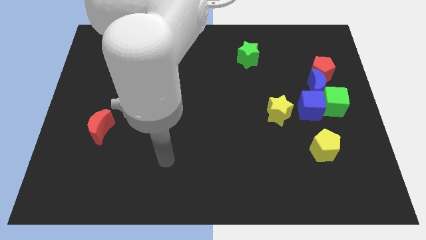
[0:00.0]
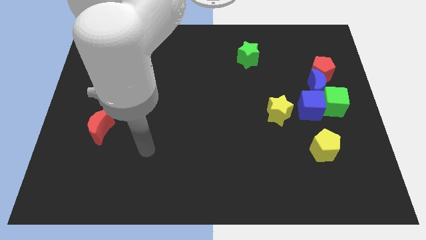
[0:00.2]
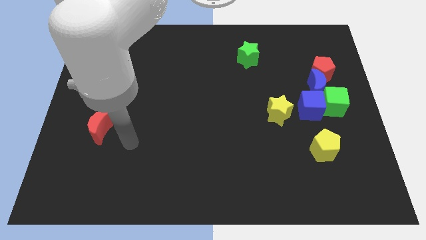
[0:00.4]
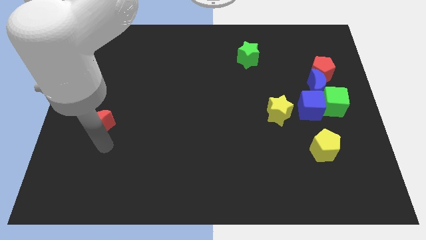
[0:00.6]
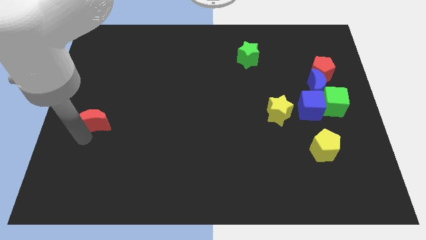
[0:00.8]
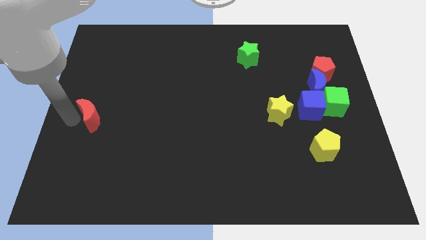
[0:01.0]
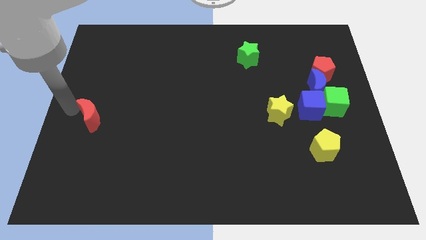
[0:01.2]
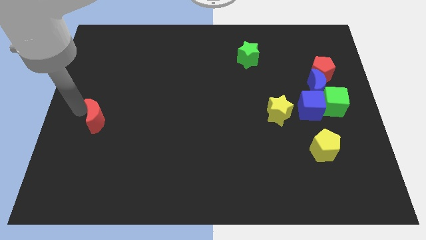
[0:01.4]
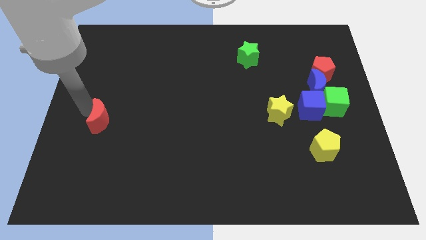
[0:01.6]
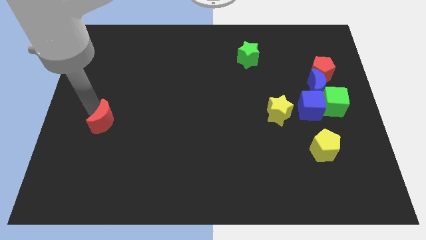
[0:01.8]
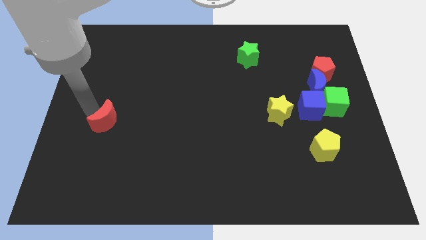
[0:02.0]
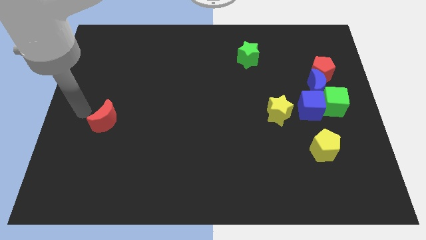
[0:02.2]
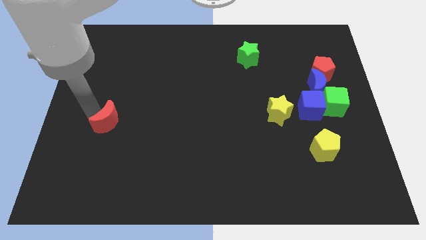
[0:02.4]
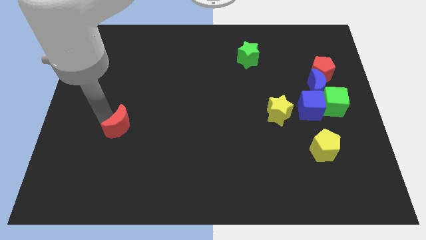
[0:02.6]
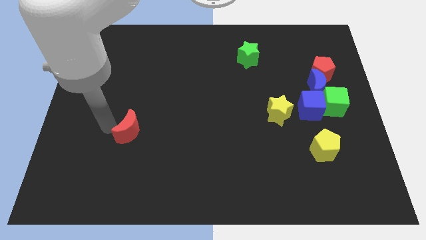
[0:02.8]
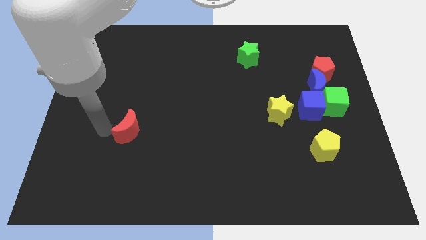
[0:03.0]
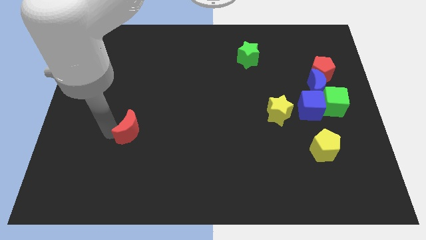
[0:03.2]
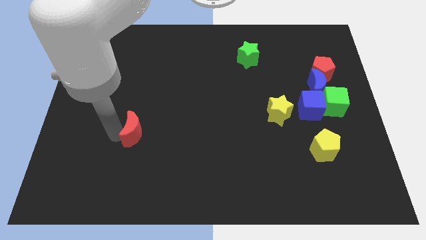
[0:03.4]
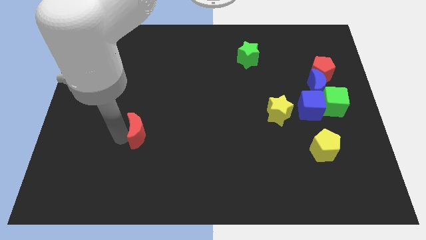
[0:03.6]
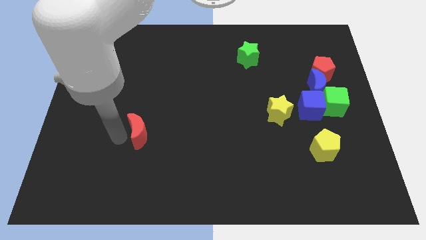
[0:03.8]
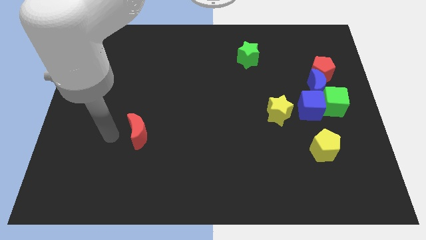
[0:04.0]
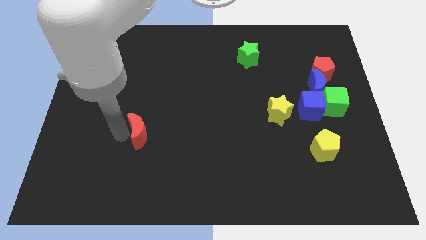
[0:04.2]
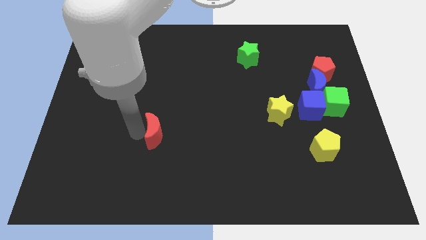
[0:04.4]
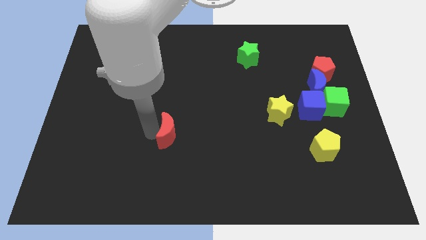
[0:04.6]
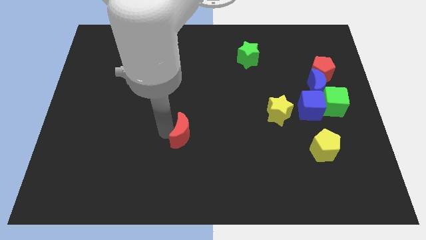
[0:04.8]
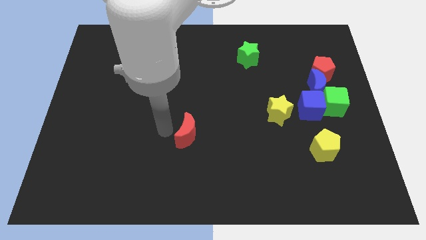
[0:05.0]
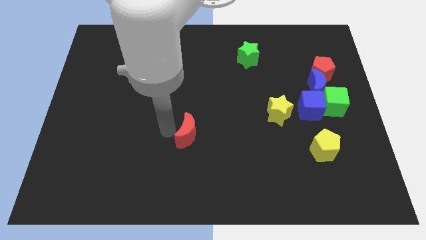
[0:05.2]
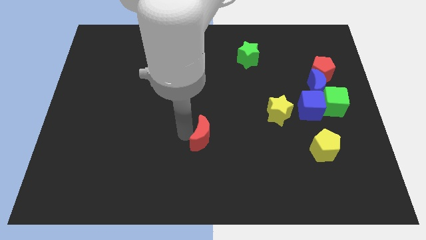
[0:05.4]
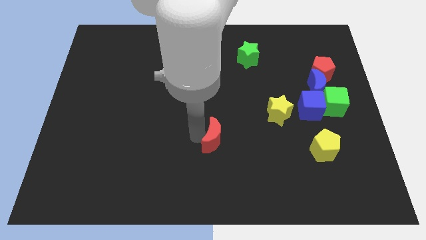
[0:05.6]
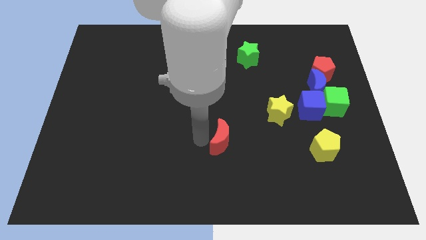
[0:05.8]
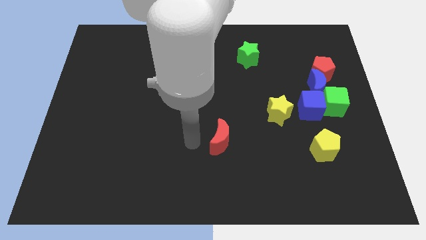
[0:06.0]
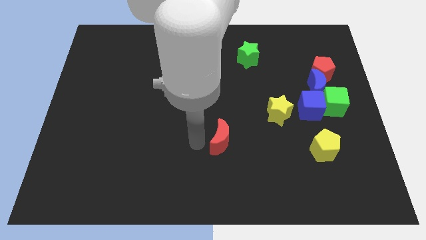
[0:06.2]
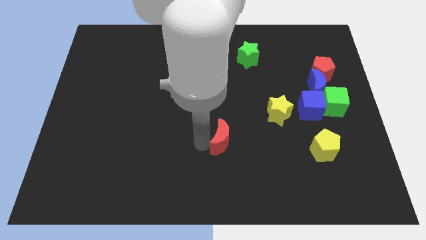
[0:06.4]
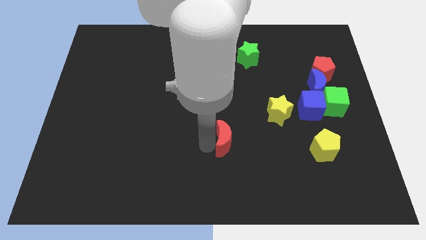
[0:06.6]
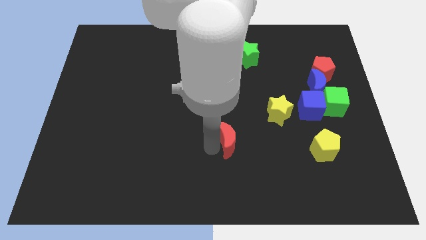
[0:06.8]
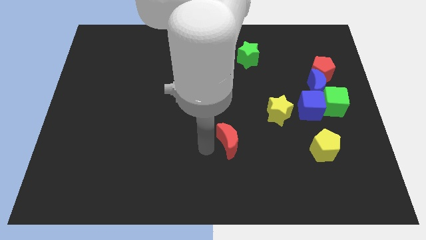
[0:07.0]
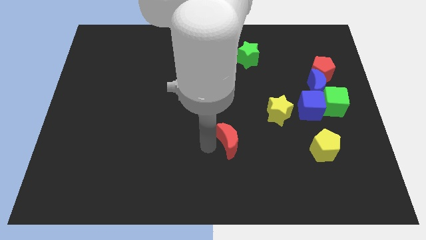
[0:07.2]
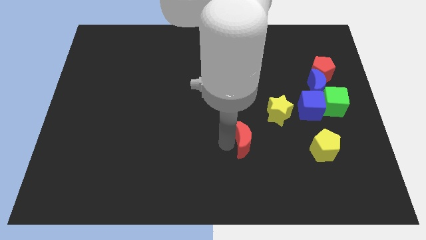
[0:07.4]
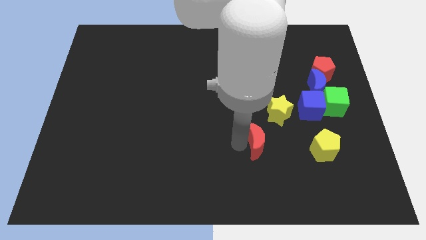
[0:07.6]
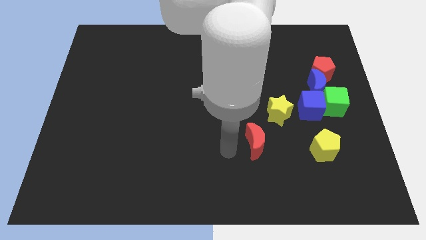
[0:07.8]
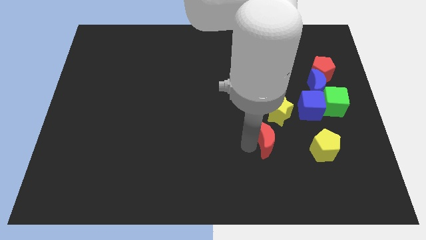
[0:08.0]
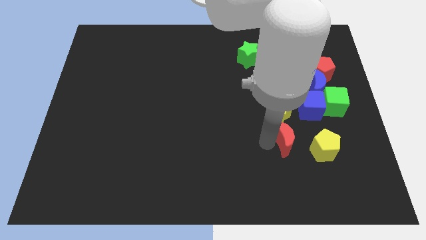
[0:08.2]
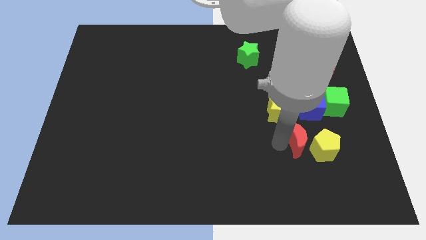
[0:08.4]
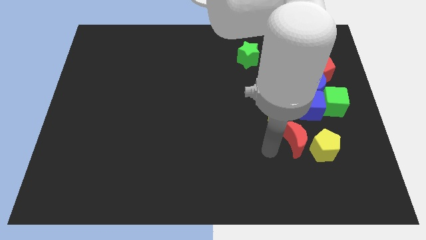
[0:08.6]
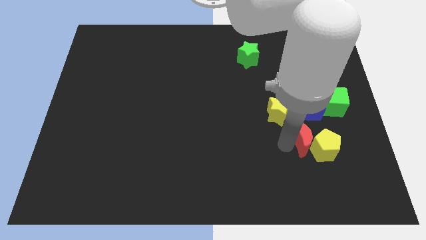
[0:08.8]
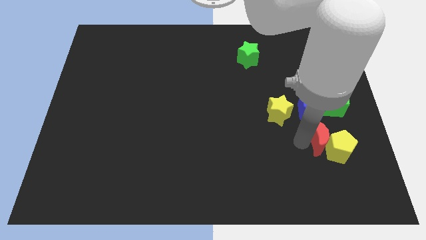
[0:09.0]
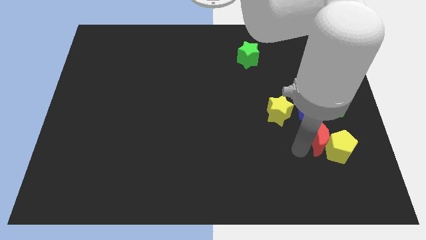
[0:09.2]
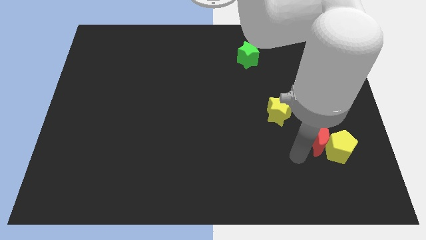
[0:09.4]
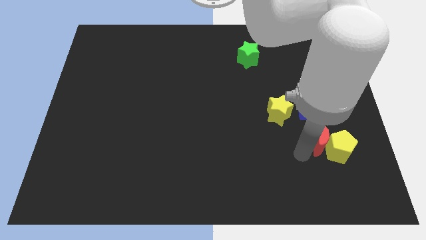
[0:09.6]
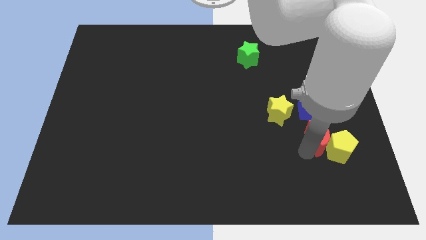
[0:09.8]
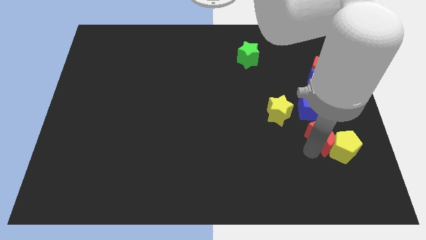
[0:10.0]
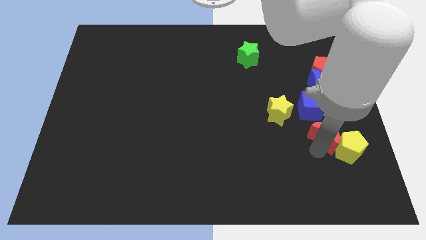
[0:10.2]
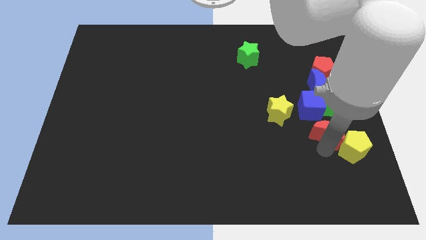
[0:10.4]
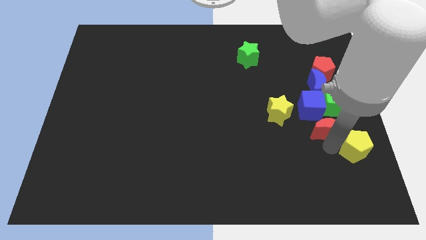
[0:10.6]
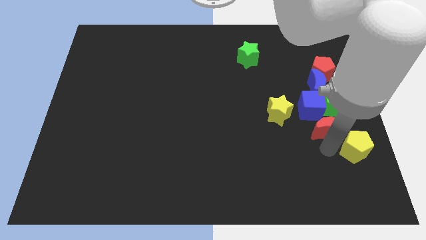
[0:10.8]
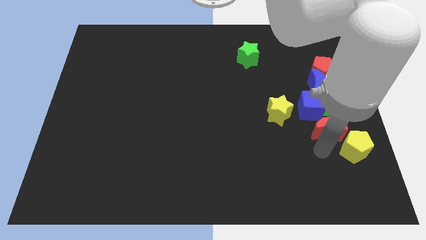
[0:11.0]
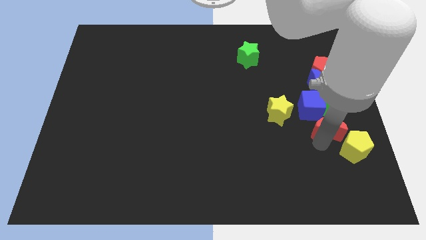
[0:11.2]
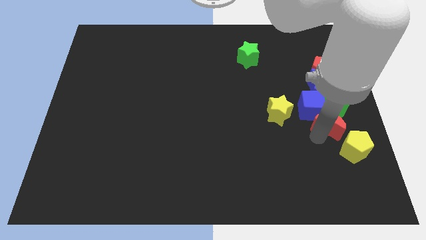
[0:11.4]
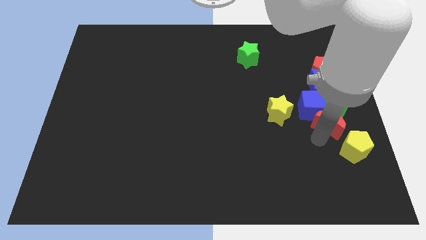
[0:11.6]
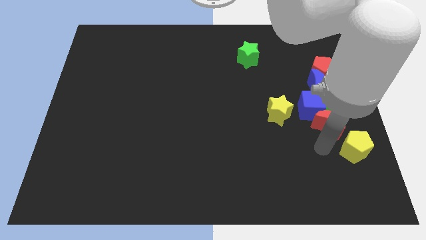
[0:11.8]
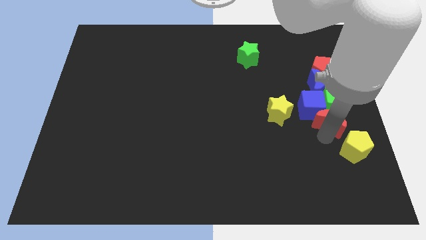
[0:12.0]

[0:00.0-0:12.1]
move the red moon close to the green cube

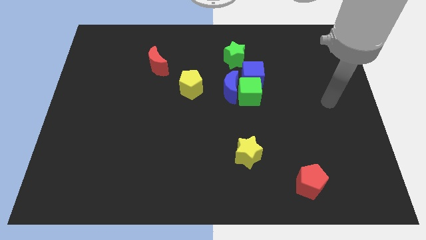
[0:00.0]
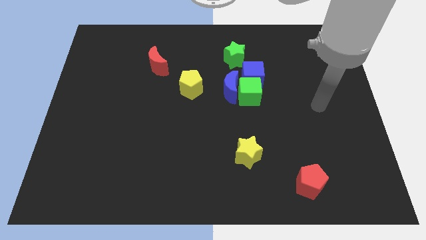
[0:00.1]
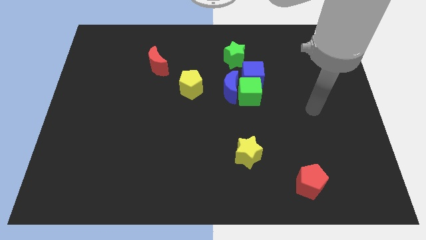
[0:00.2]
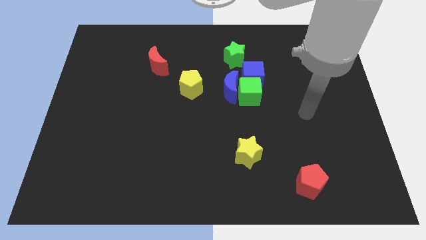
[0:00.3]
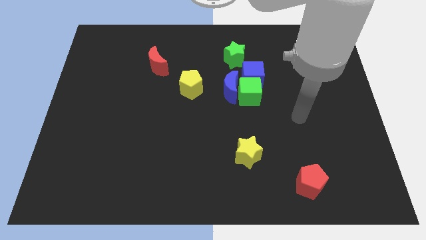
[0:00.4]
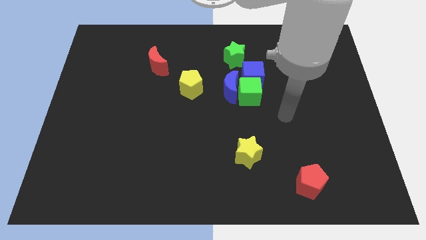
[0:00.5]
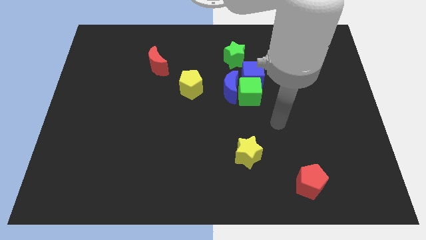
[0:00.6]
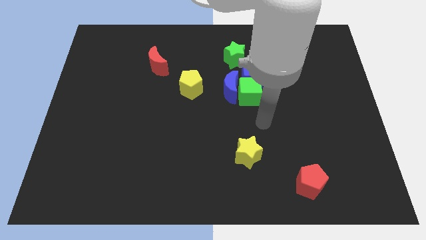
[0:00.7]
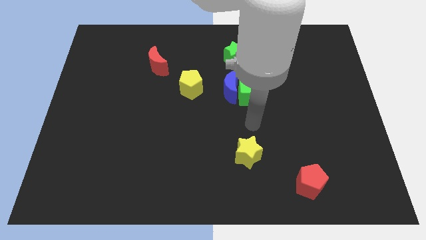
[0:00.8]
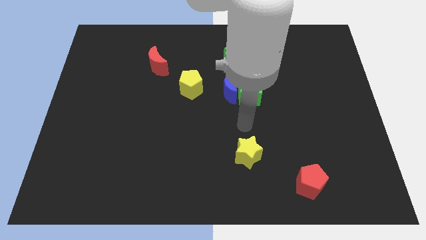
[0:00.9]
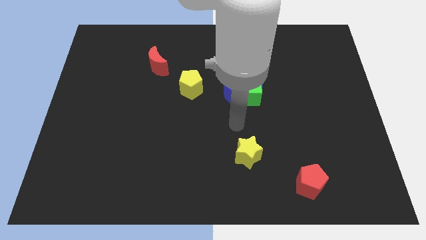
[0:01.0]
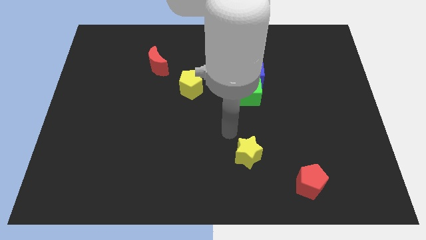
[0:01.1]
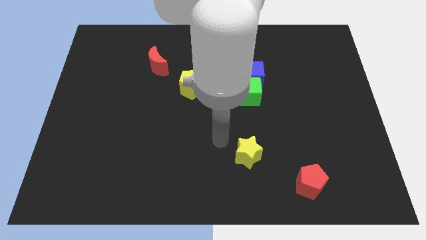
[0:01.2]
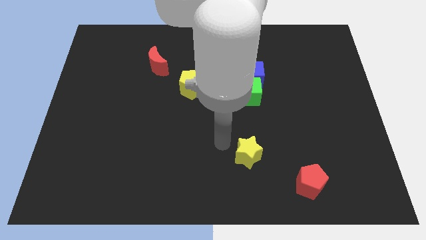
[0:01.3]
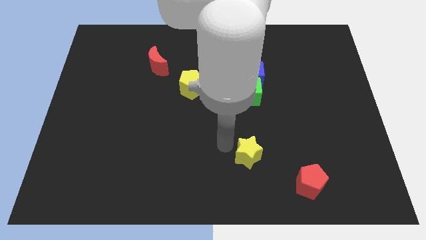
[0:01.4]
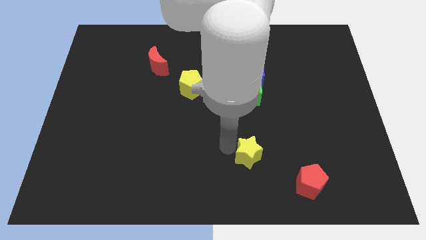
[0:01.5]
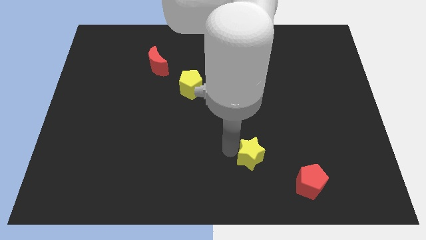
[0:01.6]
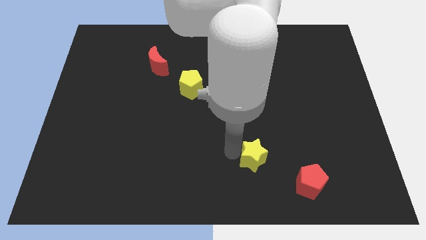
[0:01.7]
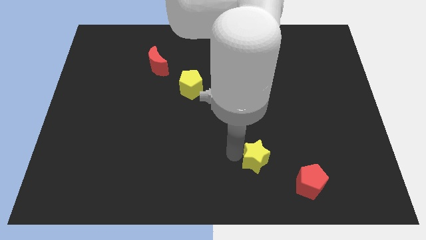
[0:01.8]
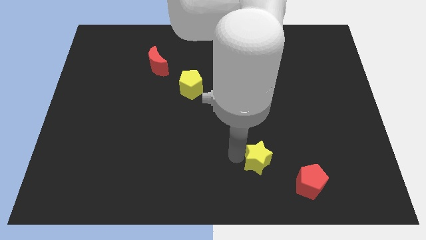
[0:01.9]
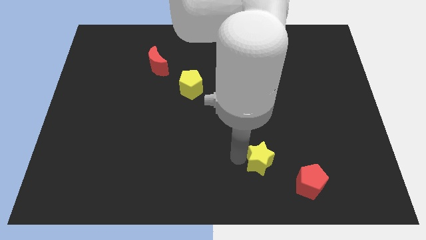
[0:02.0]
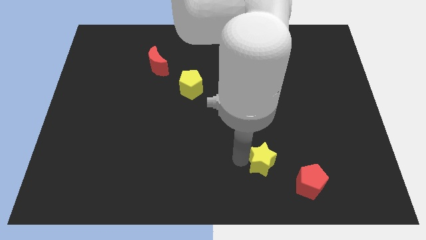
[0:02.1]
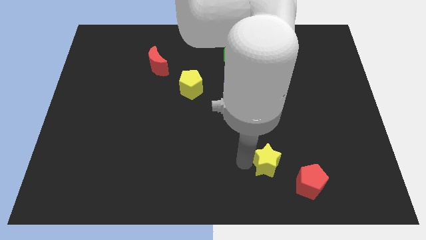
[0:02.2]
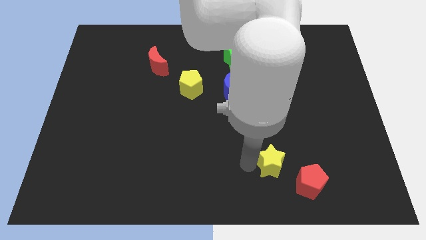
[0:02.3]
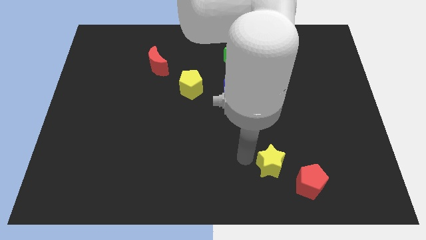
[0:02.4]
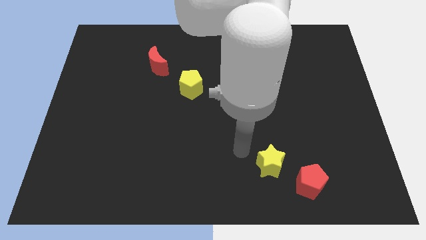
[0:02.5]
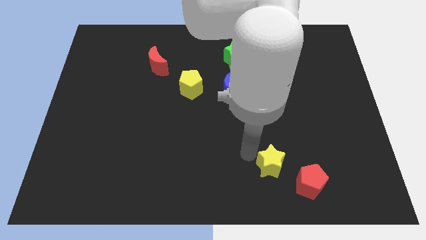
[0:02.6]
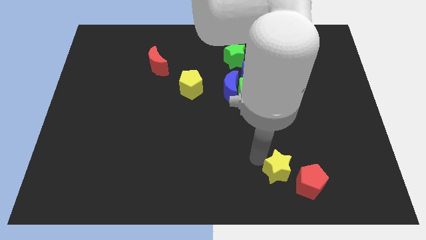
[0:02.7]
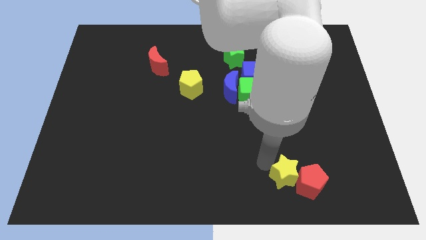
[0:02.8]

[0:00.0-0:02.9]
slide the yellow star towards the red pentagon
